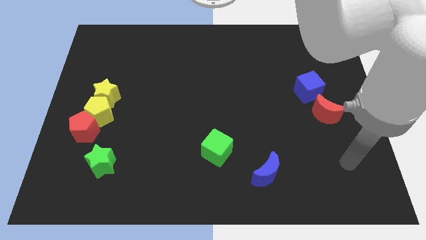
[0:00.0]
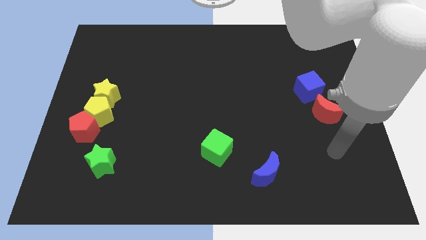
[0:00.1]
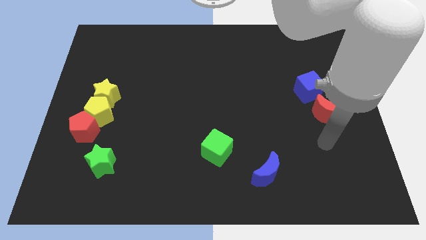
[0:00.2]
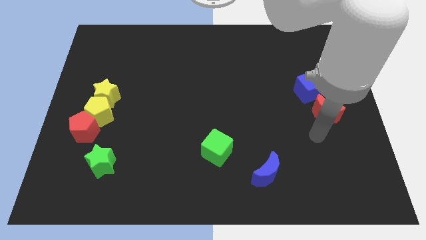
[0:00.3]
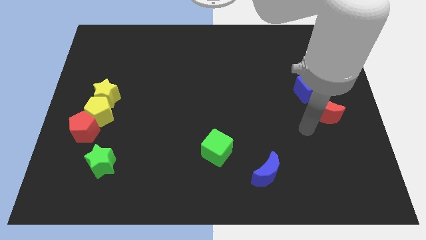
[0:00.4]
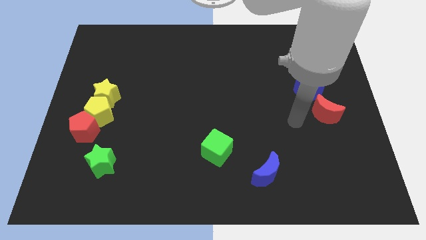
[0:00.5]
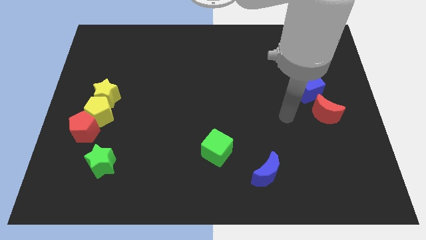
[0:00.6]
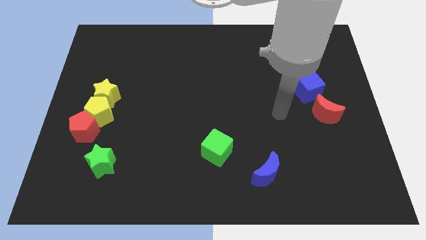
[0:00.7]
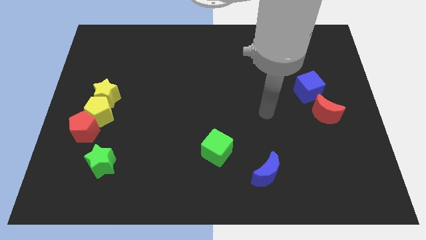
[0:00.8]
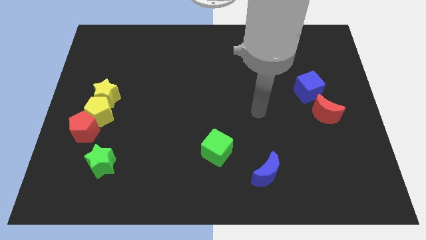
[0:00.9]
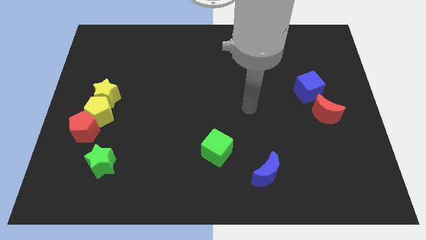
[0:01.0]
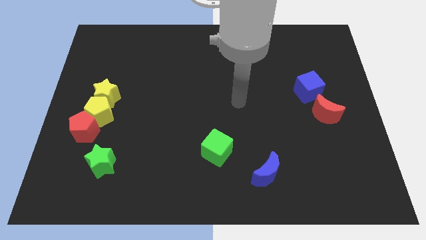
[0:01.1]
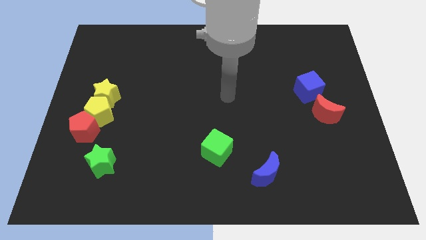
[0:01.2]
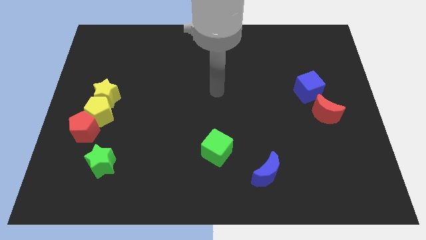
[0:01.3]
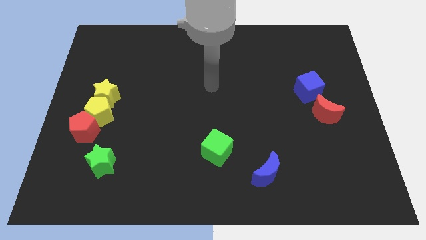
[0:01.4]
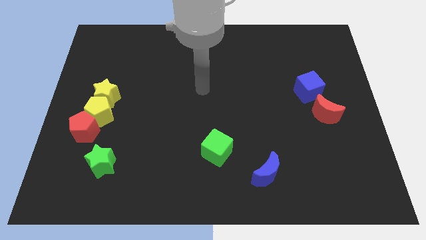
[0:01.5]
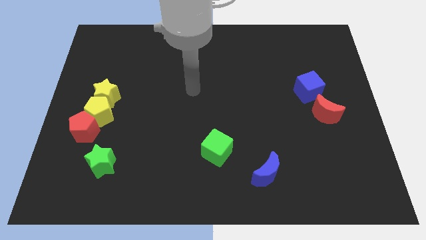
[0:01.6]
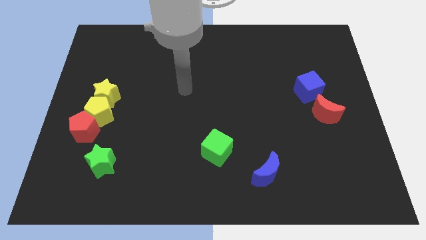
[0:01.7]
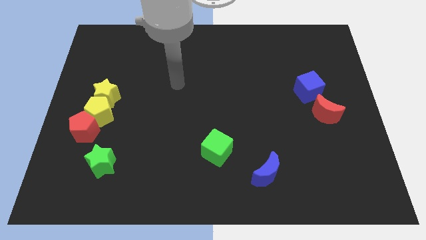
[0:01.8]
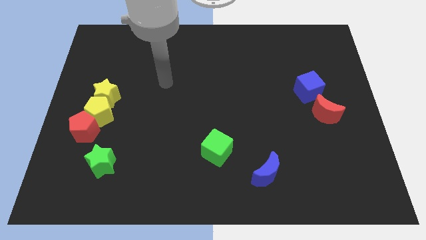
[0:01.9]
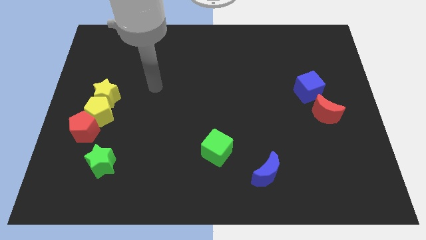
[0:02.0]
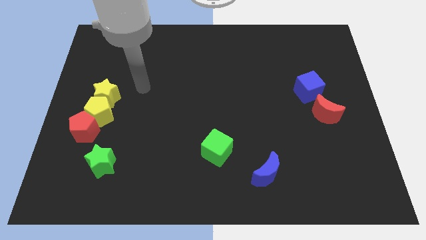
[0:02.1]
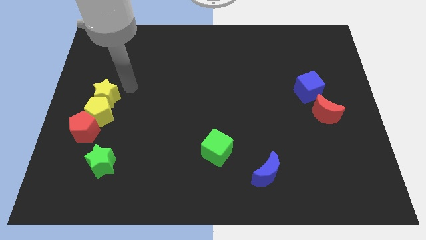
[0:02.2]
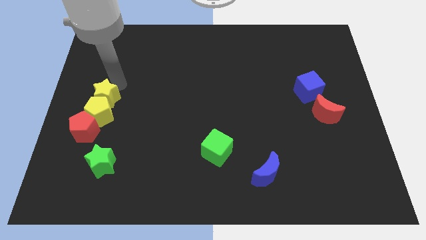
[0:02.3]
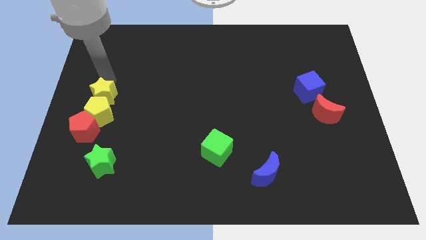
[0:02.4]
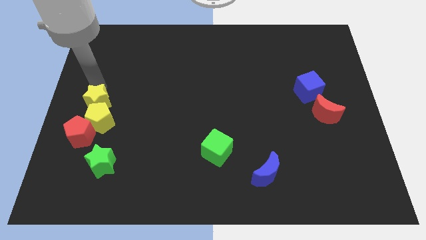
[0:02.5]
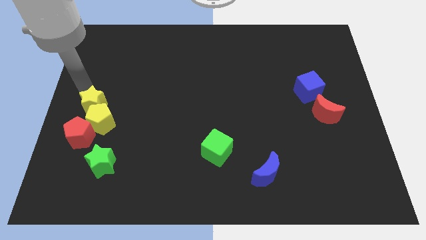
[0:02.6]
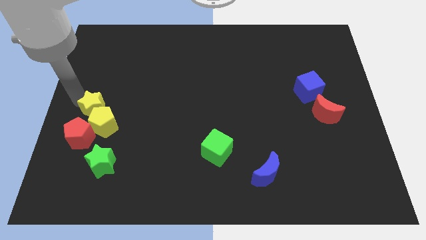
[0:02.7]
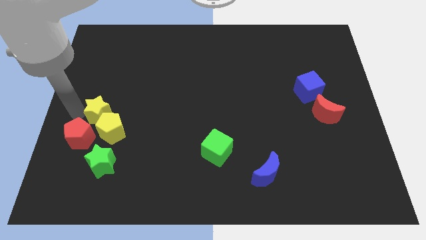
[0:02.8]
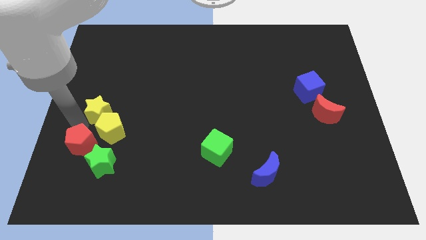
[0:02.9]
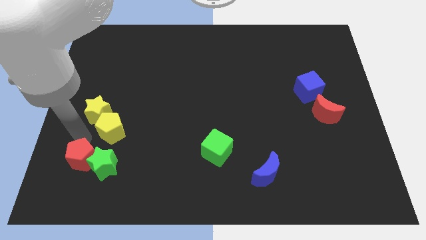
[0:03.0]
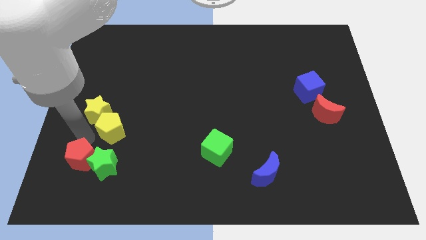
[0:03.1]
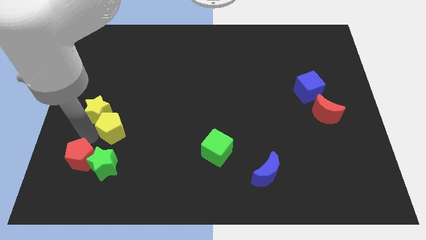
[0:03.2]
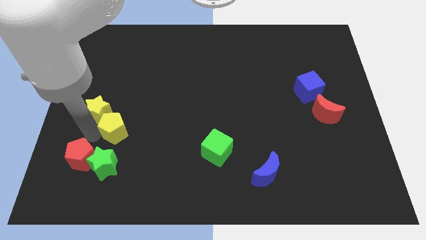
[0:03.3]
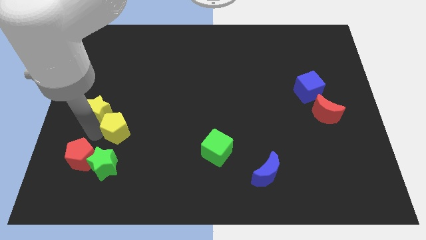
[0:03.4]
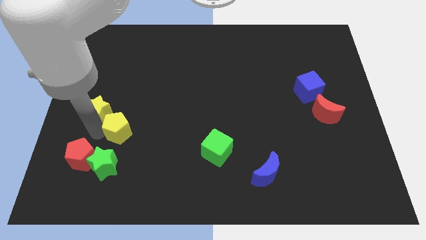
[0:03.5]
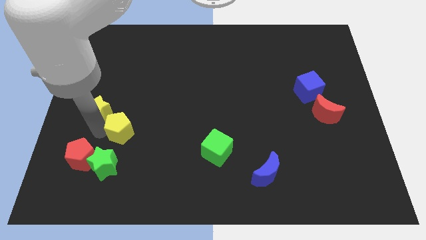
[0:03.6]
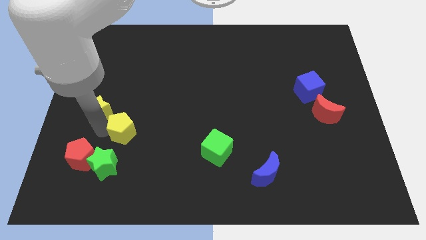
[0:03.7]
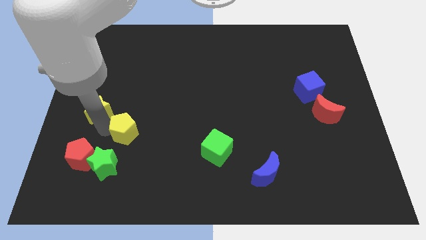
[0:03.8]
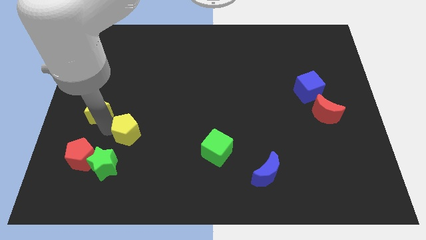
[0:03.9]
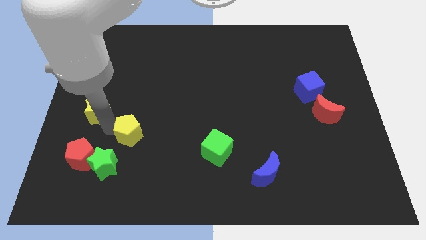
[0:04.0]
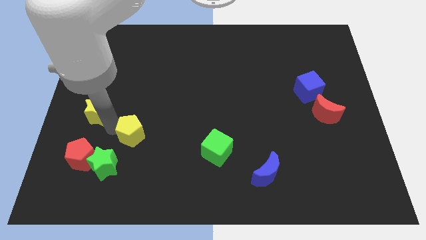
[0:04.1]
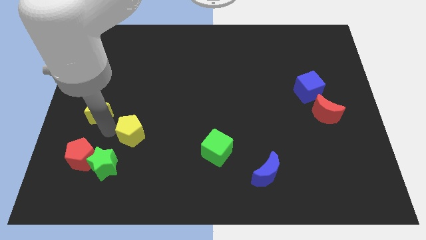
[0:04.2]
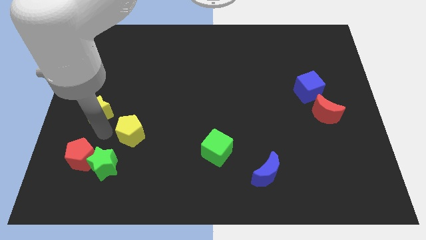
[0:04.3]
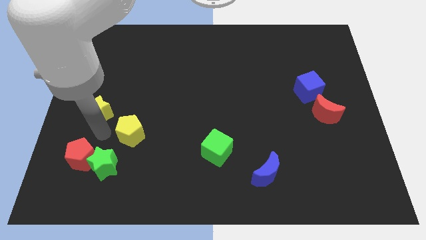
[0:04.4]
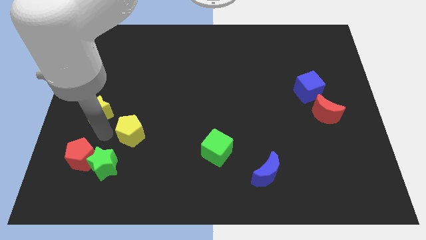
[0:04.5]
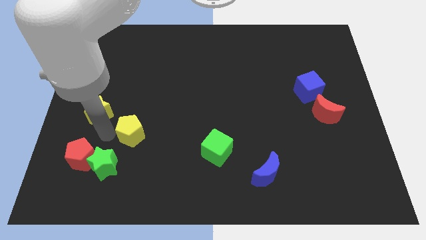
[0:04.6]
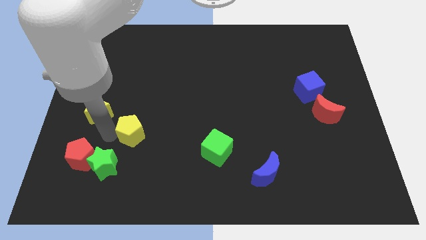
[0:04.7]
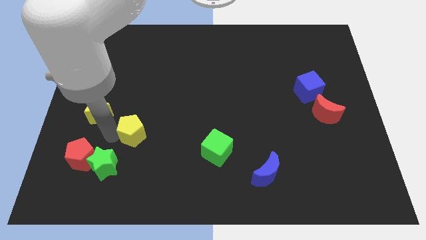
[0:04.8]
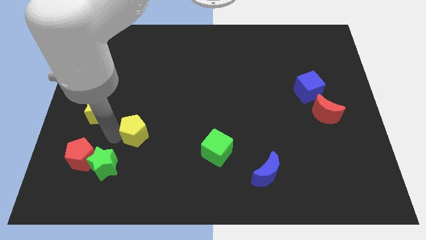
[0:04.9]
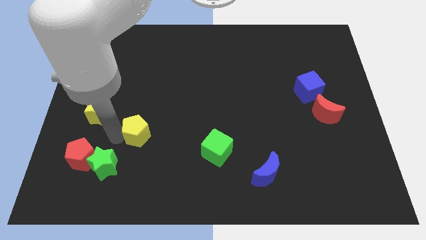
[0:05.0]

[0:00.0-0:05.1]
move the yellow pentagon away from the red pentagon and yellow star

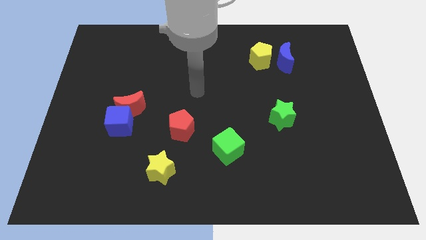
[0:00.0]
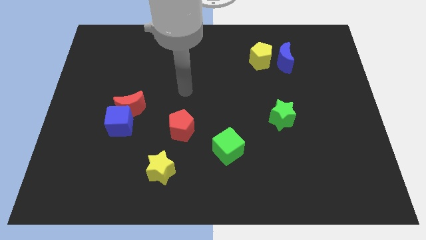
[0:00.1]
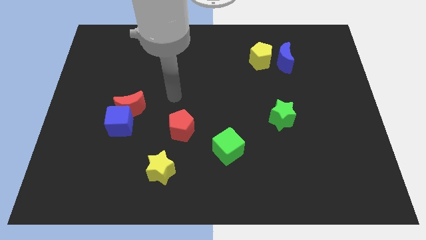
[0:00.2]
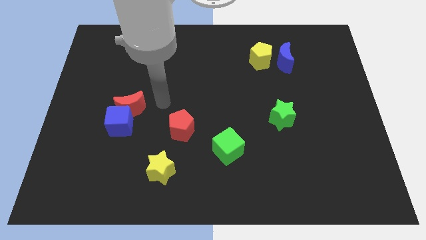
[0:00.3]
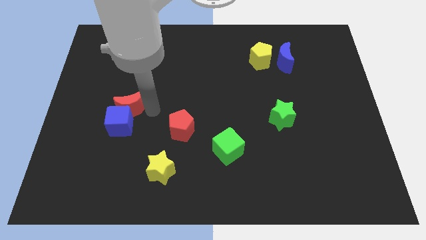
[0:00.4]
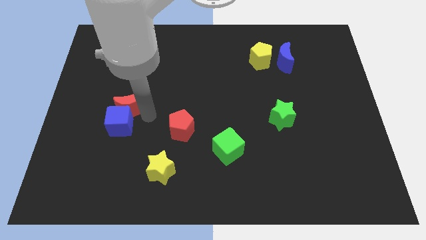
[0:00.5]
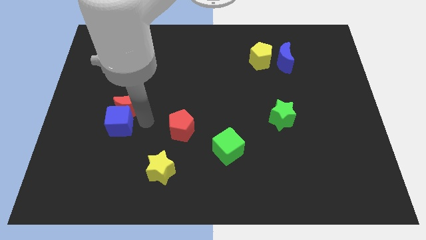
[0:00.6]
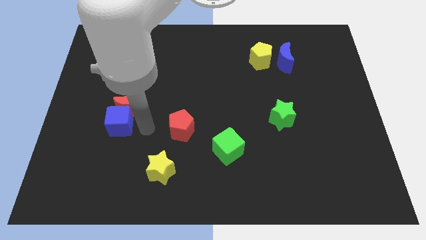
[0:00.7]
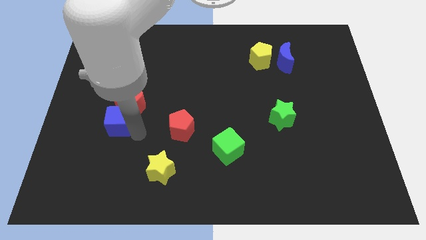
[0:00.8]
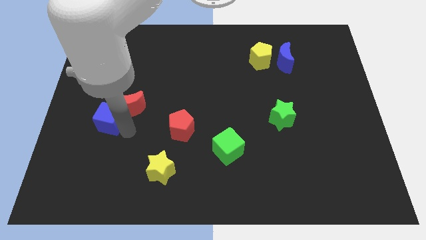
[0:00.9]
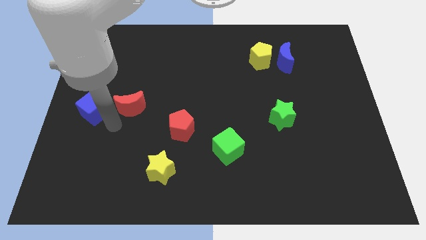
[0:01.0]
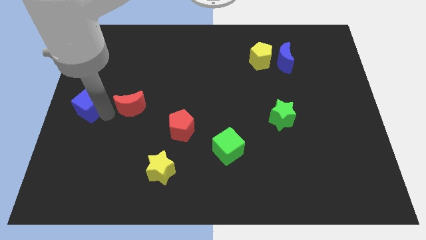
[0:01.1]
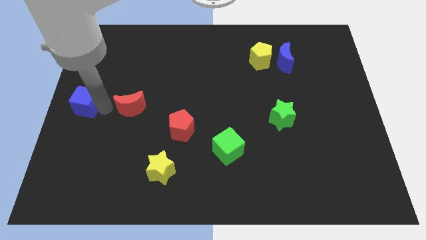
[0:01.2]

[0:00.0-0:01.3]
pull the red moon apart from the blue cube

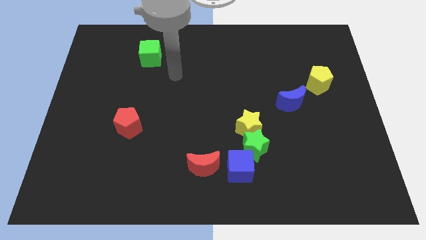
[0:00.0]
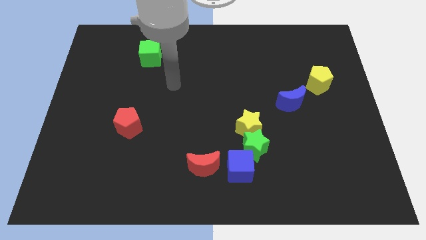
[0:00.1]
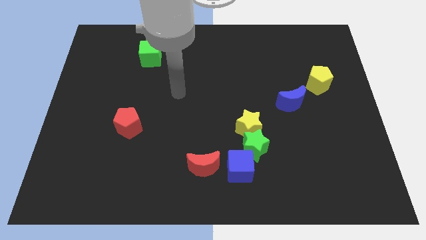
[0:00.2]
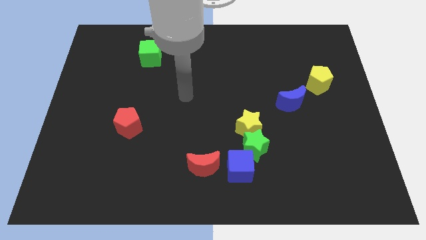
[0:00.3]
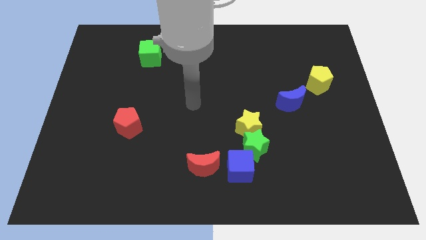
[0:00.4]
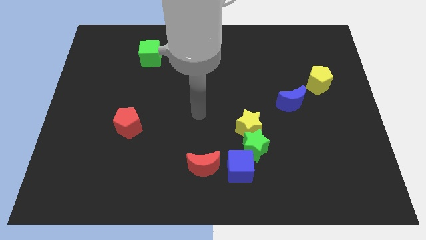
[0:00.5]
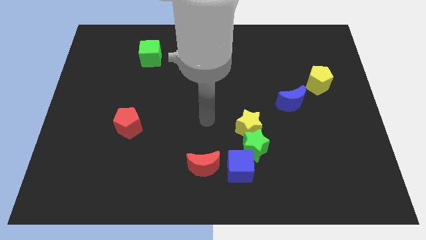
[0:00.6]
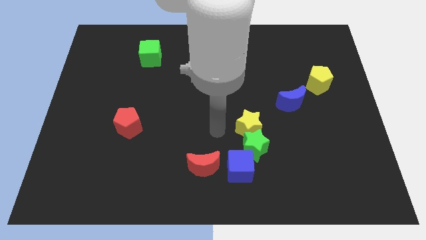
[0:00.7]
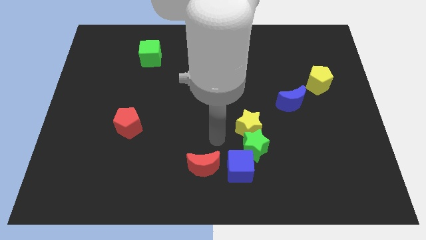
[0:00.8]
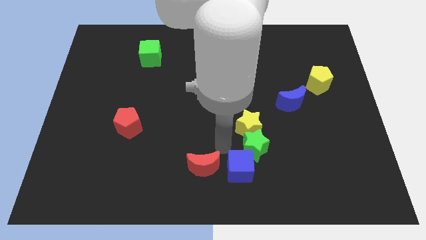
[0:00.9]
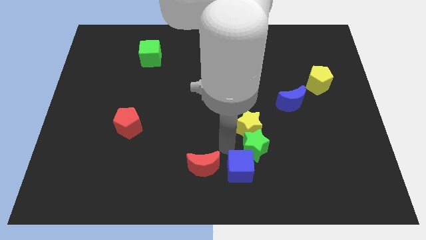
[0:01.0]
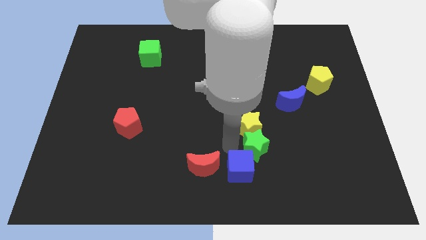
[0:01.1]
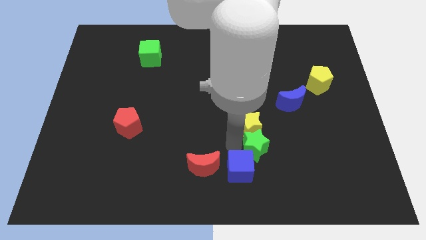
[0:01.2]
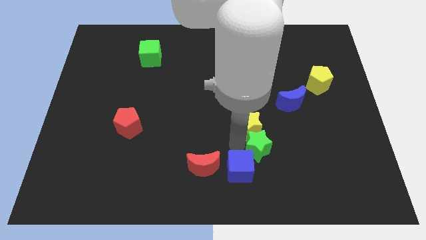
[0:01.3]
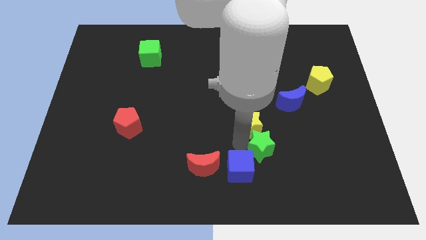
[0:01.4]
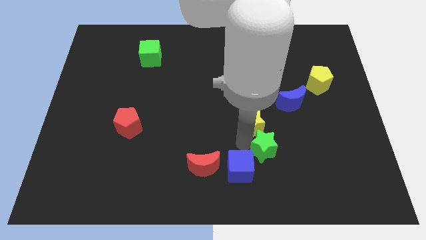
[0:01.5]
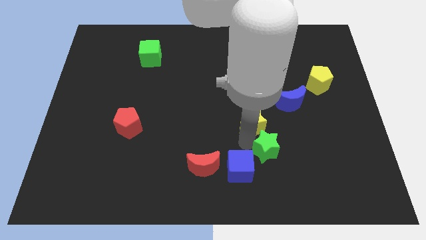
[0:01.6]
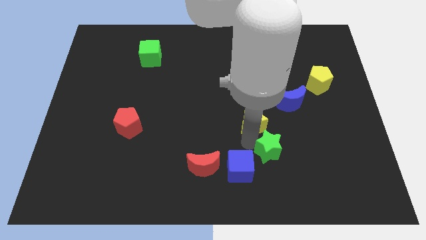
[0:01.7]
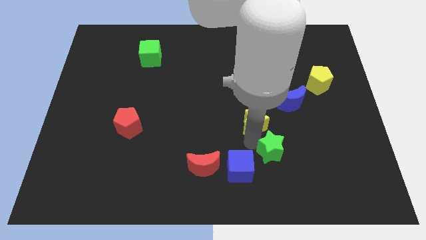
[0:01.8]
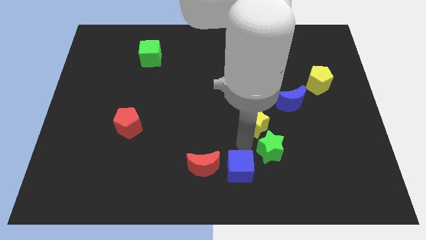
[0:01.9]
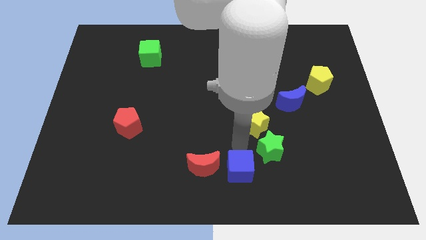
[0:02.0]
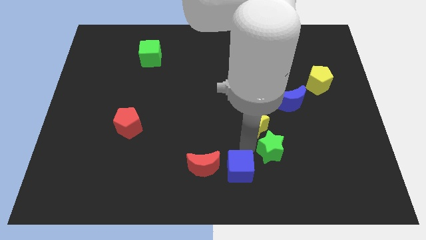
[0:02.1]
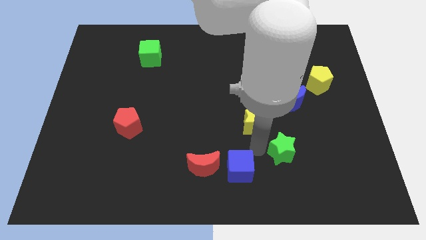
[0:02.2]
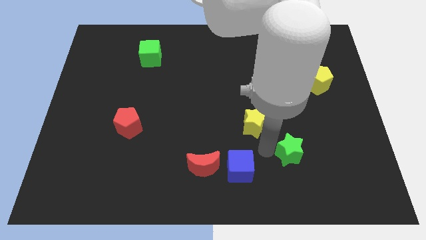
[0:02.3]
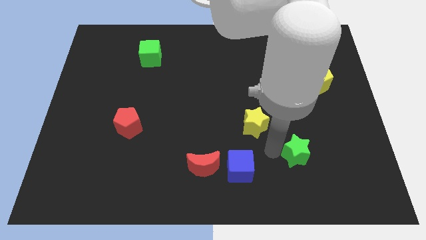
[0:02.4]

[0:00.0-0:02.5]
pull the green star apart from the yellow star and blue cube

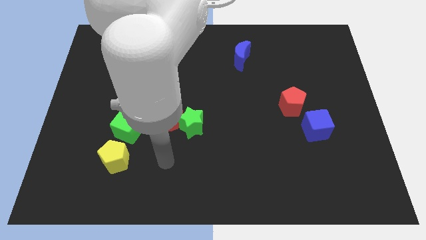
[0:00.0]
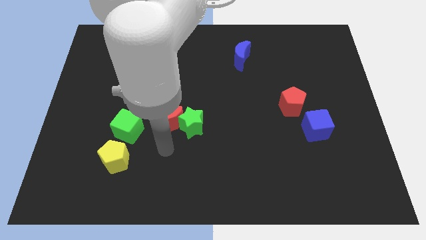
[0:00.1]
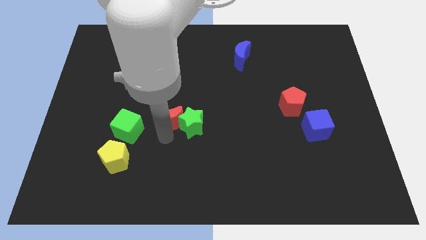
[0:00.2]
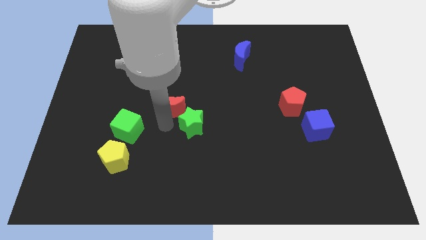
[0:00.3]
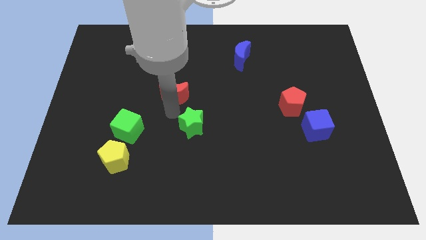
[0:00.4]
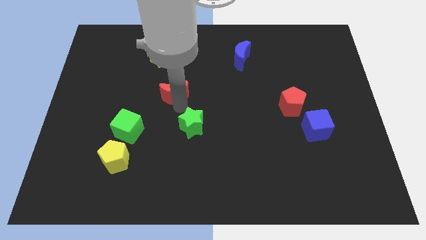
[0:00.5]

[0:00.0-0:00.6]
separate the green star from the red moon
